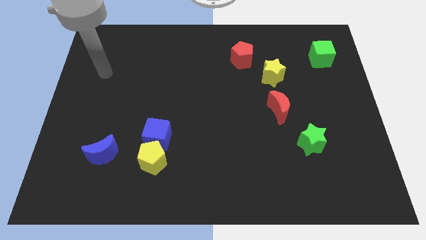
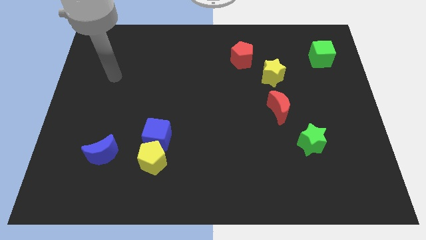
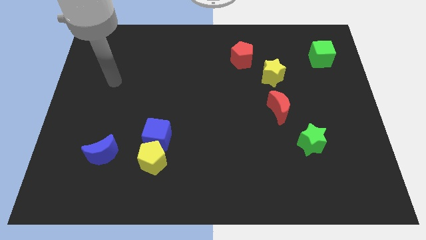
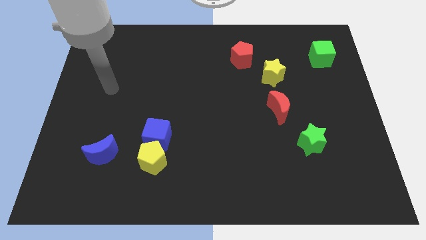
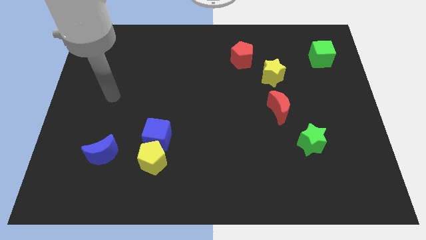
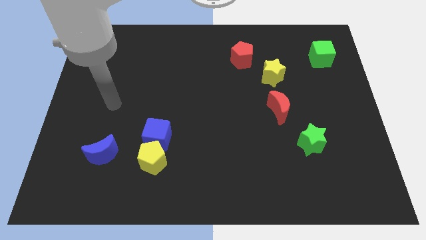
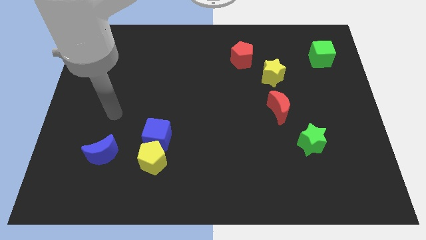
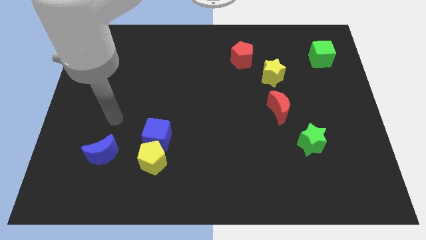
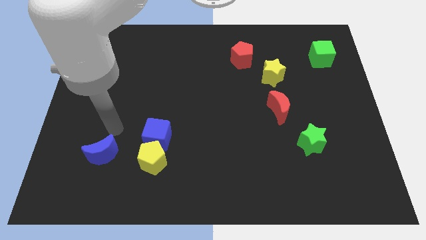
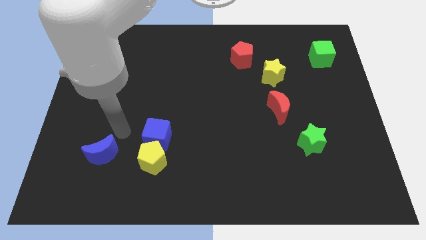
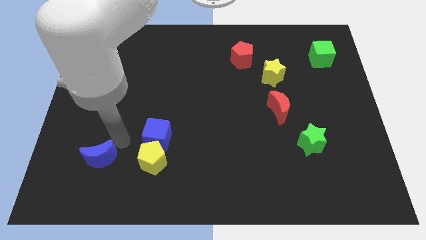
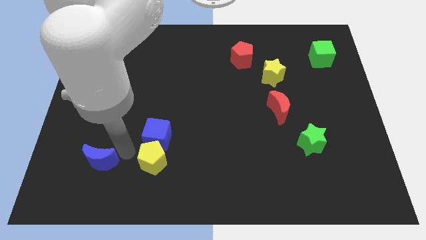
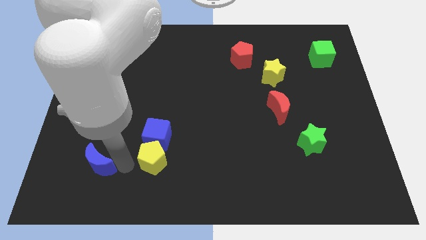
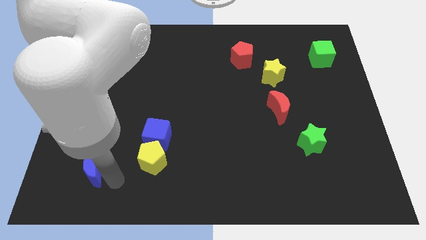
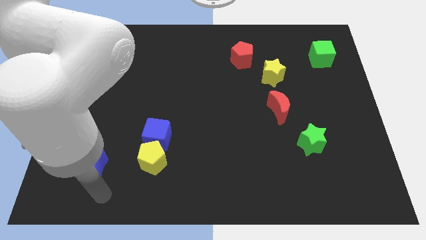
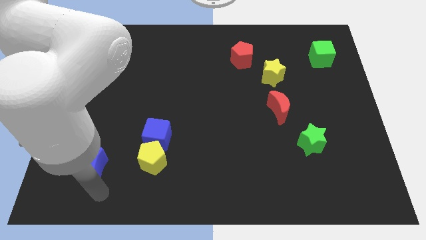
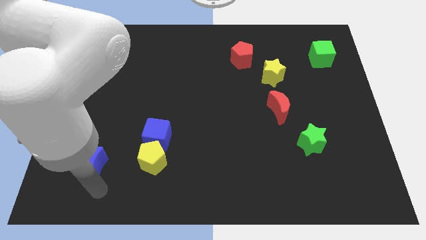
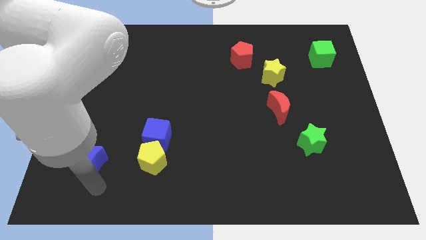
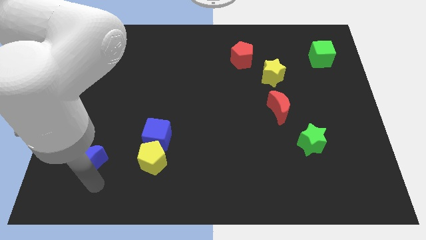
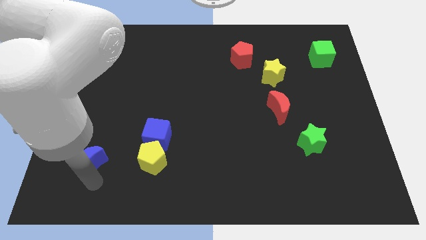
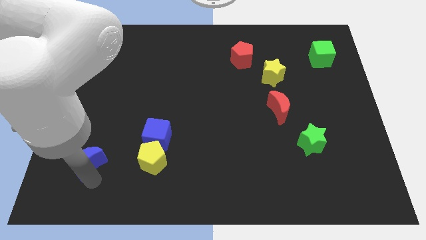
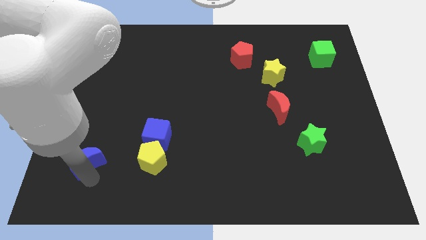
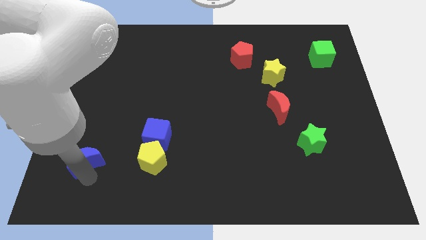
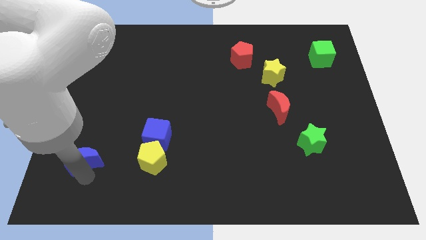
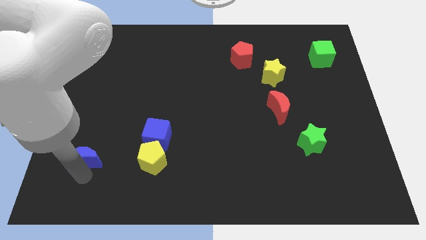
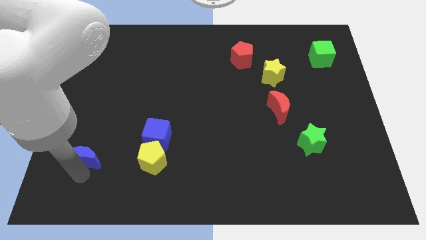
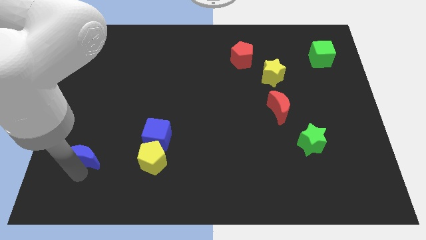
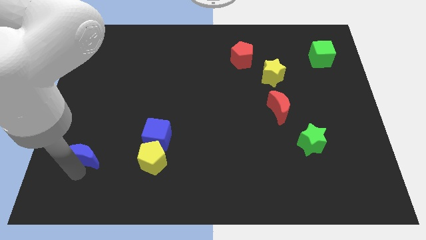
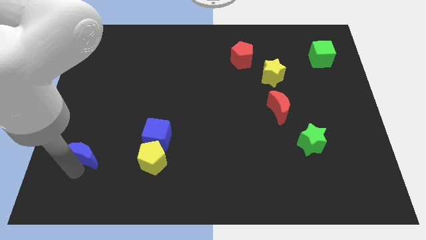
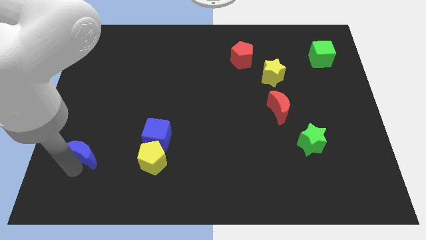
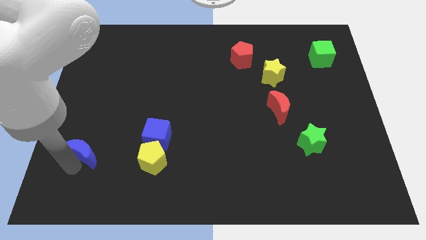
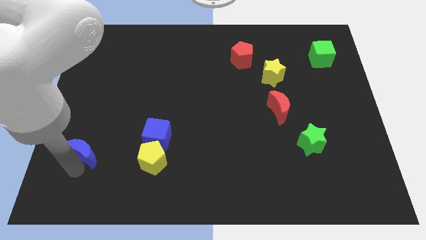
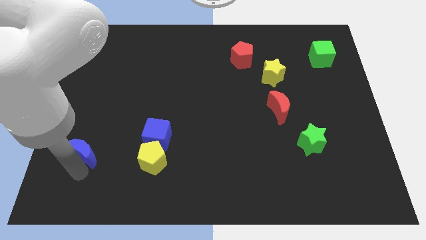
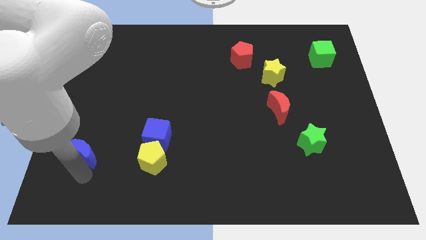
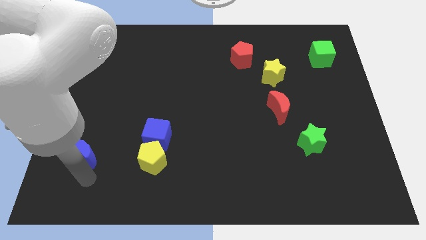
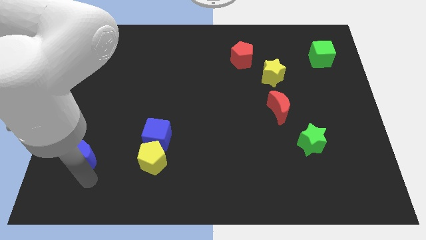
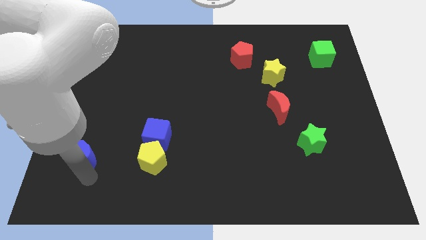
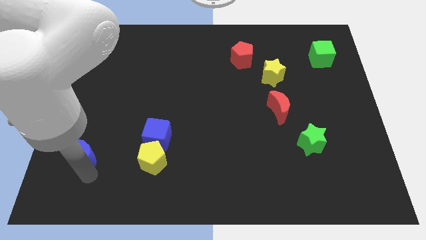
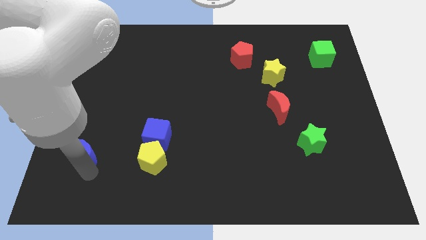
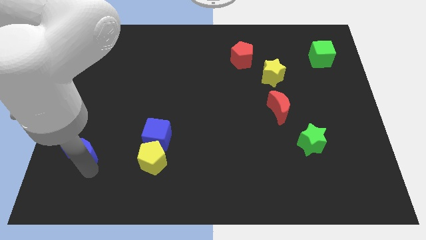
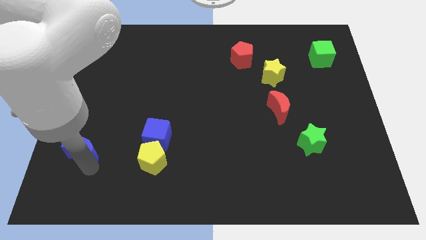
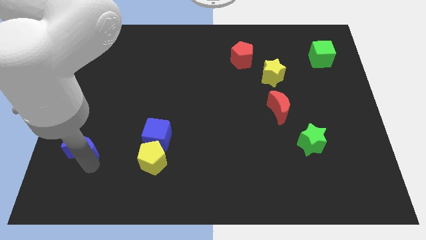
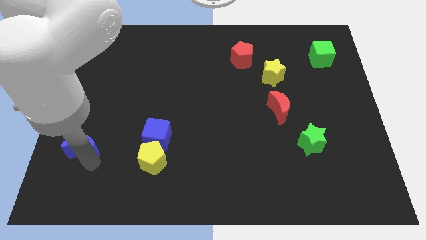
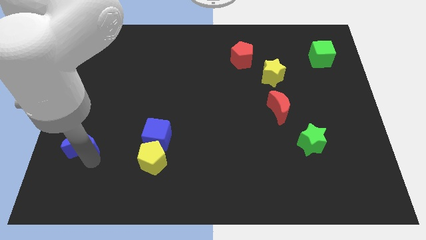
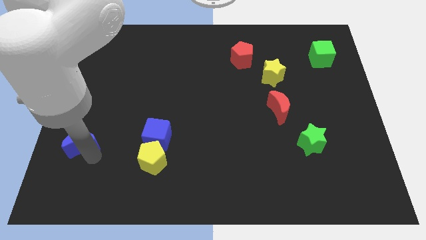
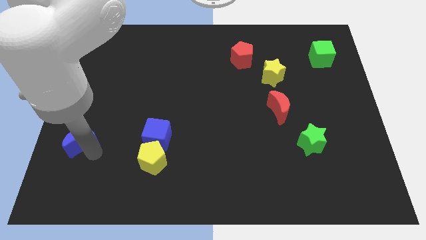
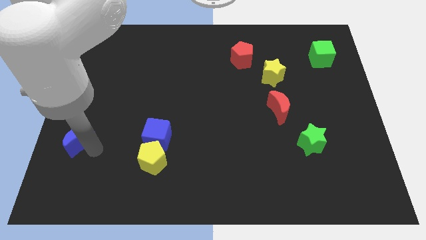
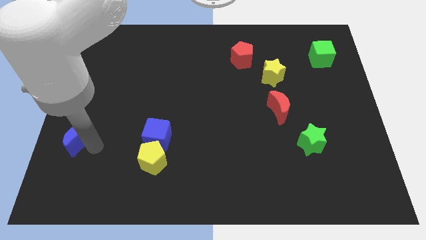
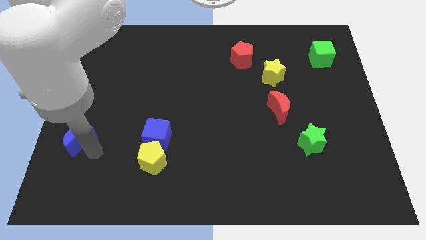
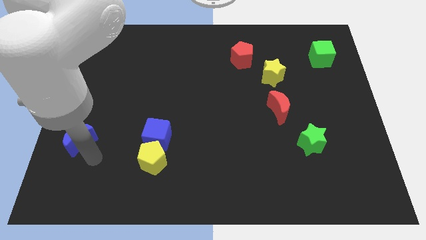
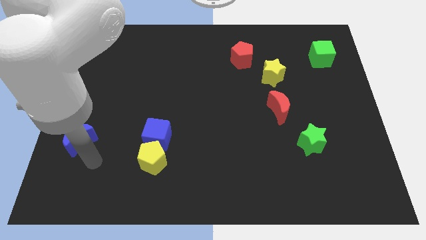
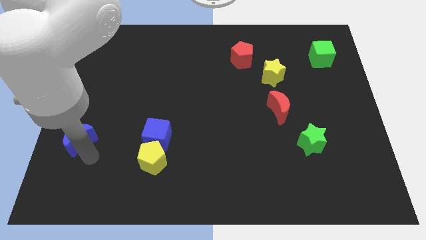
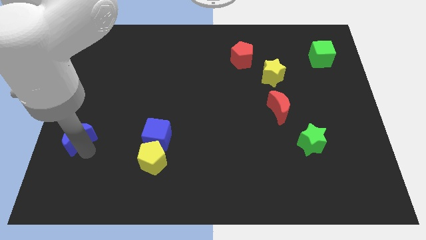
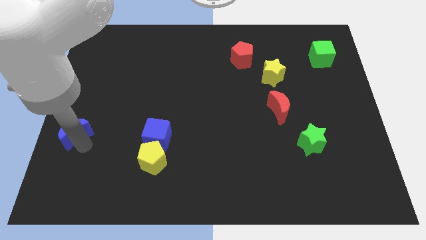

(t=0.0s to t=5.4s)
push the blue moon to the left side of the board

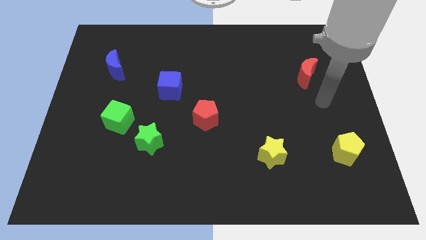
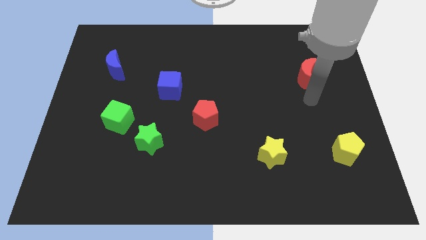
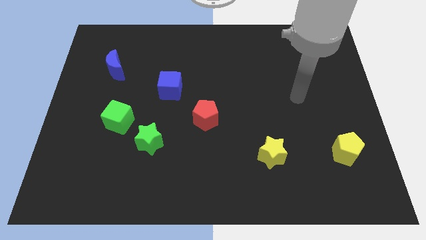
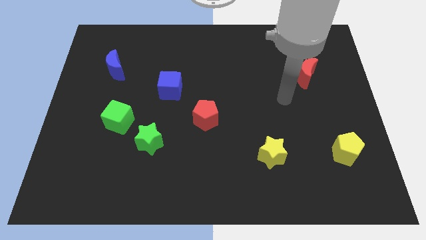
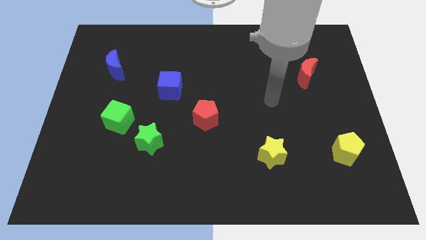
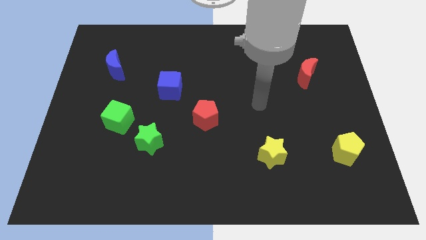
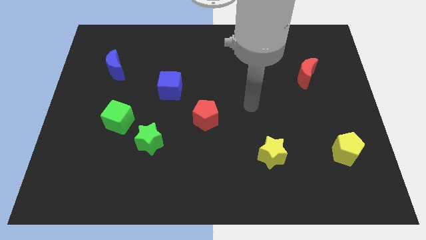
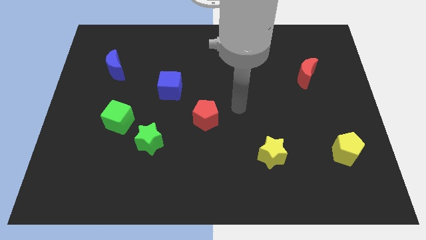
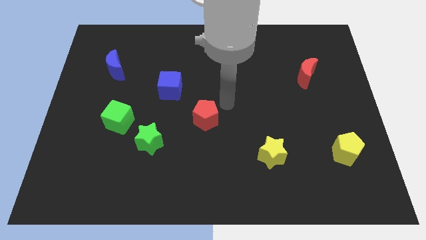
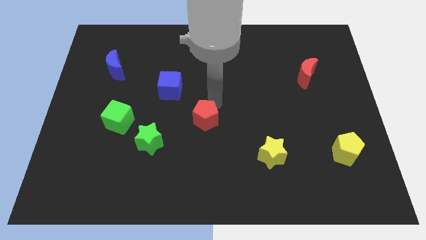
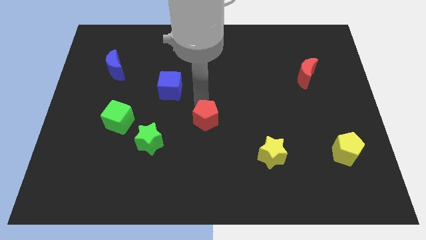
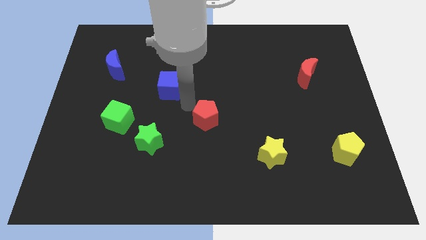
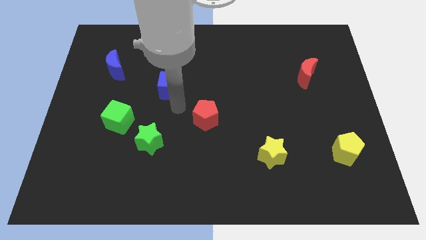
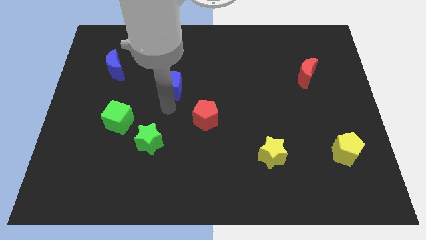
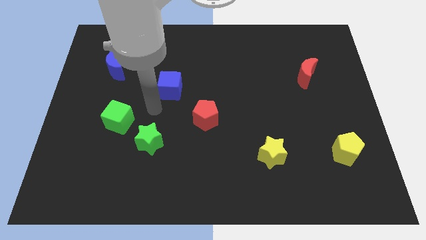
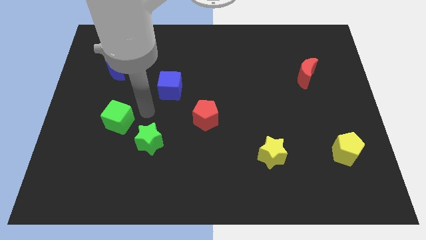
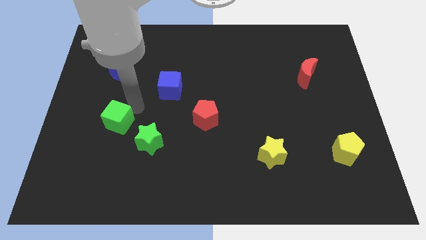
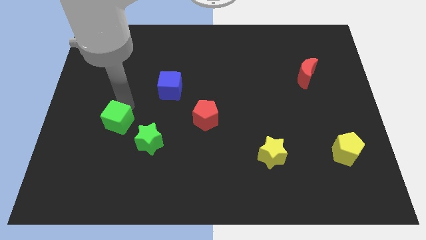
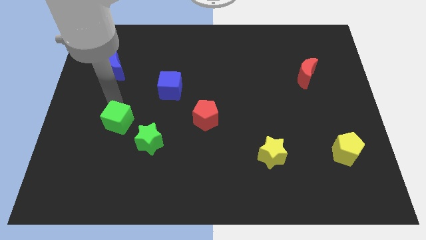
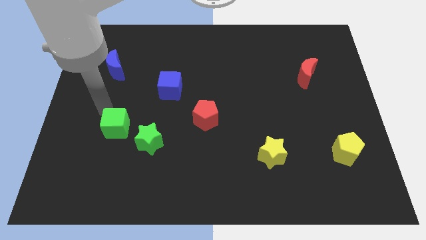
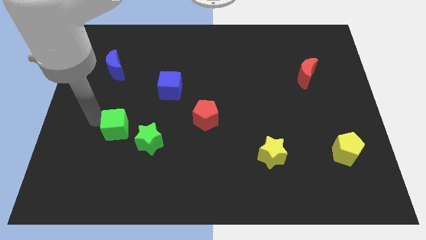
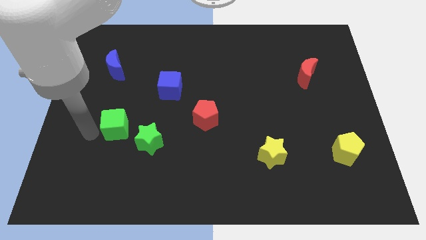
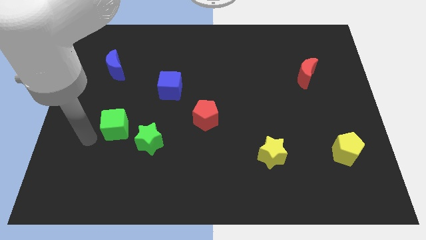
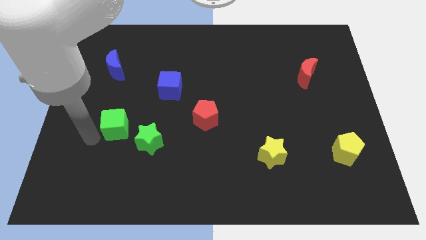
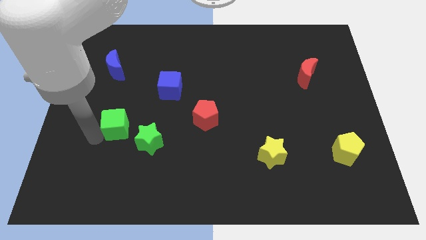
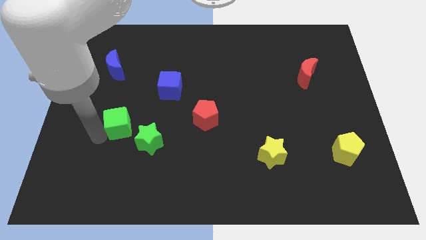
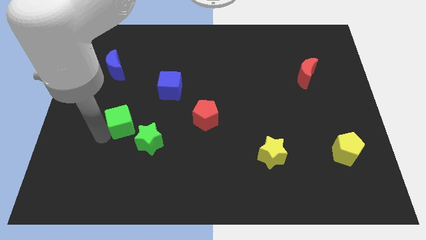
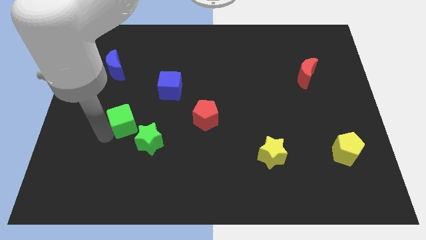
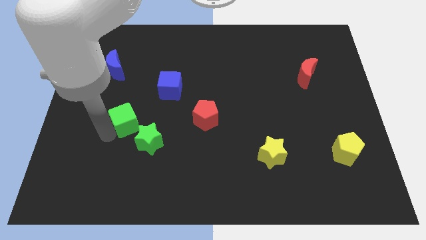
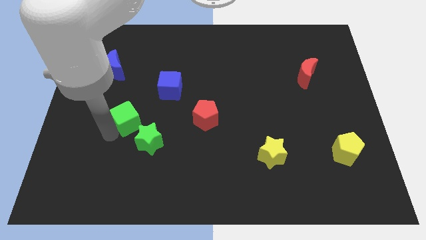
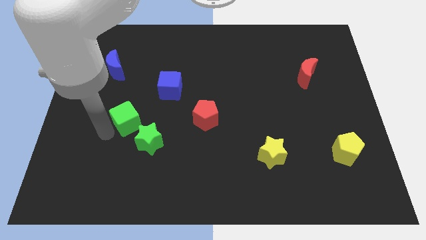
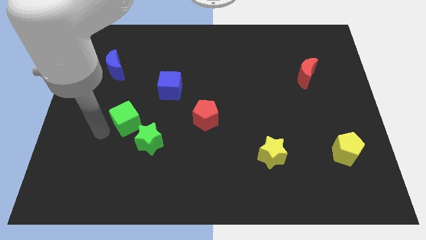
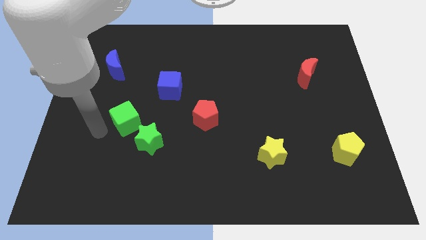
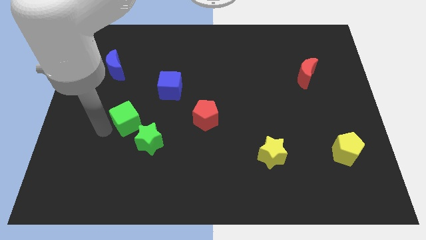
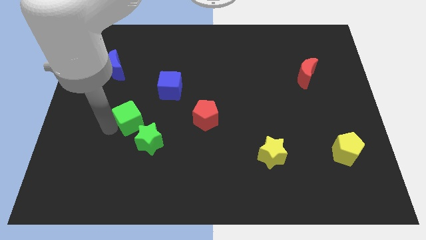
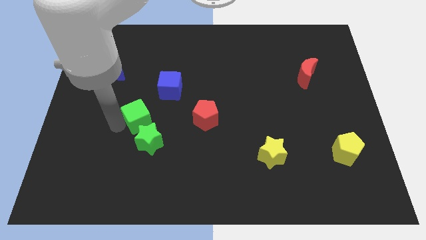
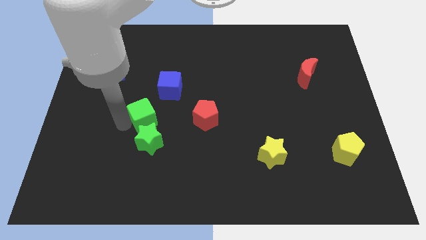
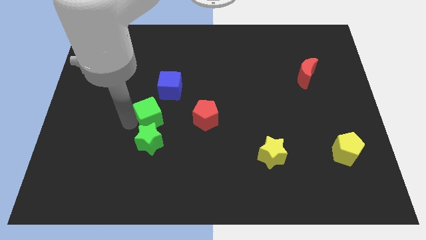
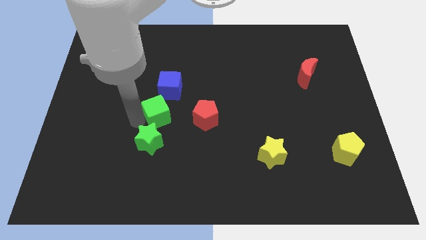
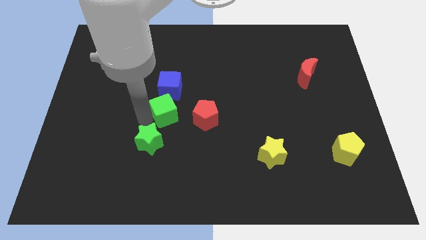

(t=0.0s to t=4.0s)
put the green cube to the middle of the board
